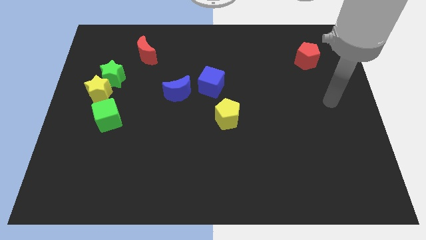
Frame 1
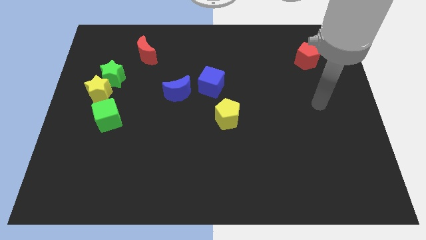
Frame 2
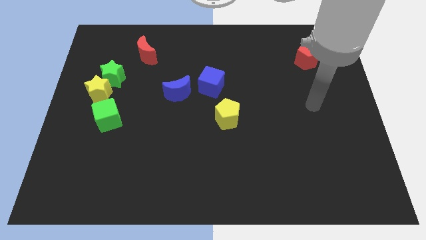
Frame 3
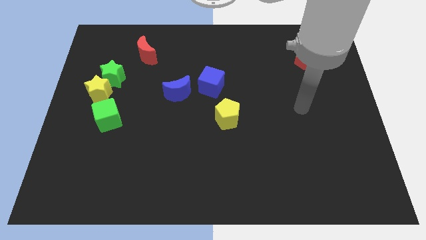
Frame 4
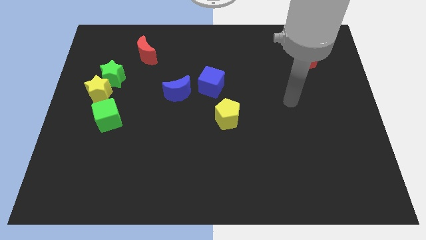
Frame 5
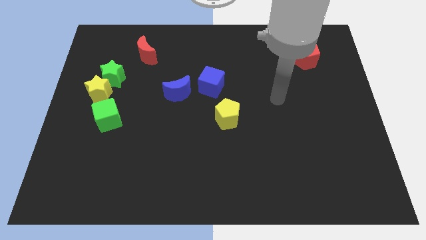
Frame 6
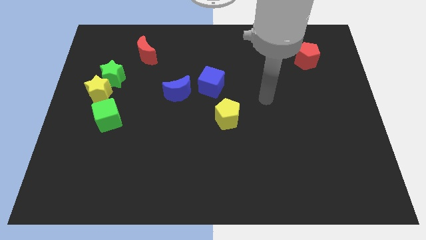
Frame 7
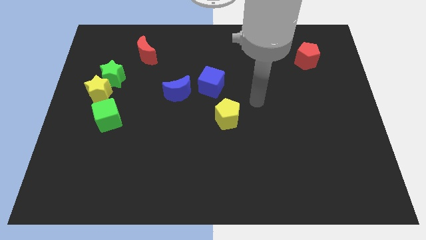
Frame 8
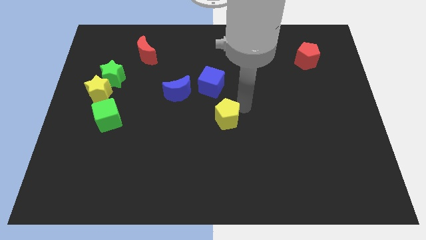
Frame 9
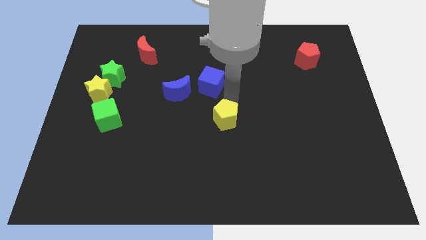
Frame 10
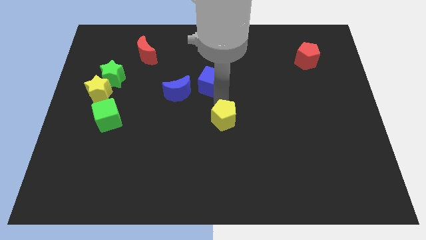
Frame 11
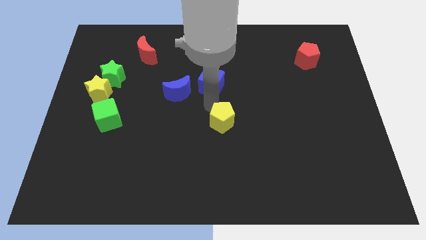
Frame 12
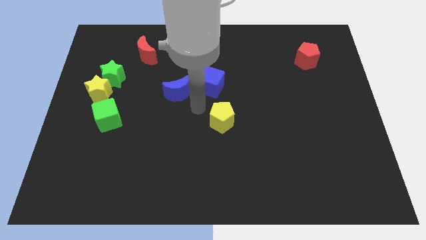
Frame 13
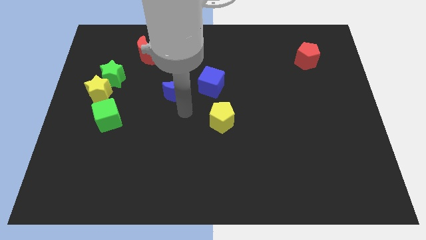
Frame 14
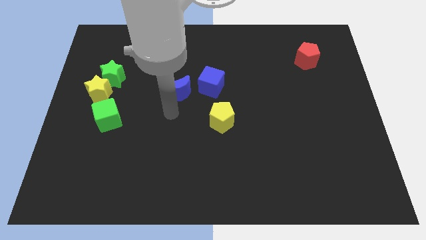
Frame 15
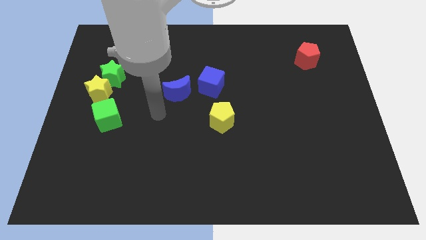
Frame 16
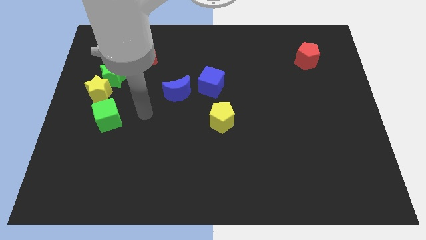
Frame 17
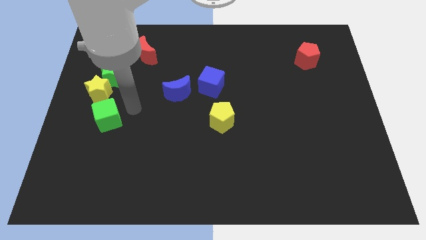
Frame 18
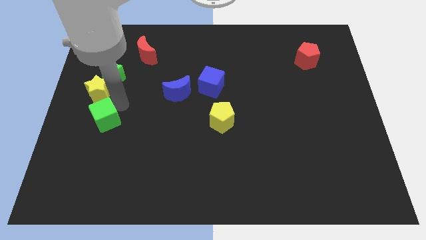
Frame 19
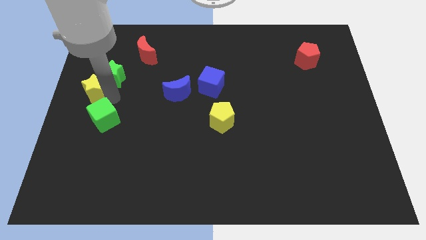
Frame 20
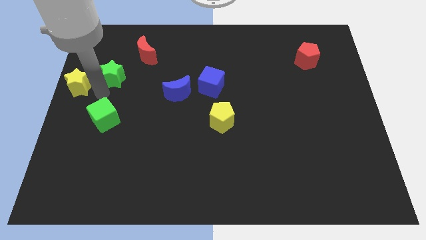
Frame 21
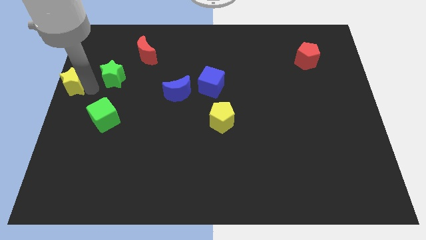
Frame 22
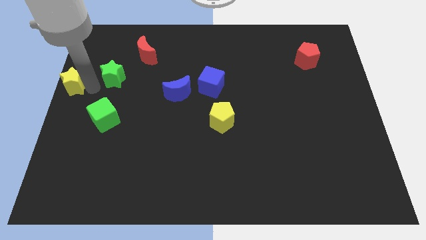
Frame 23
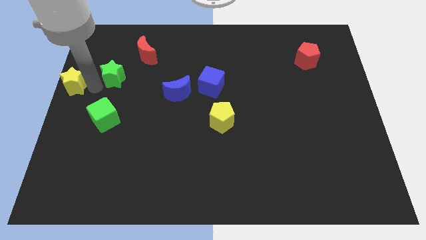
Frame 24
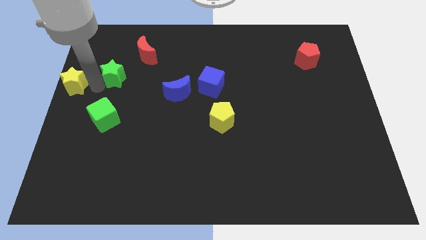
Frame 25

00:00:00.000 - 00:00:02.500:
pull the green star apart from the yellow star

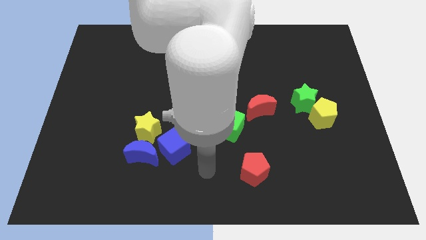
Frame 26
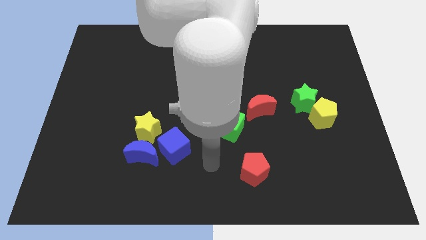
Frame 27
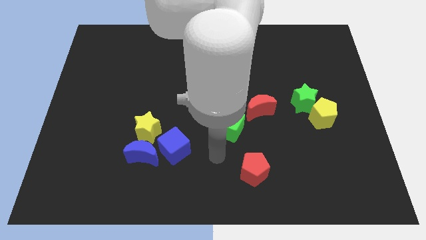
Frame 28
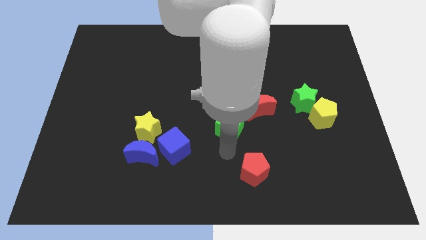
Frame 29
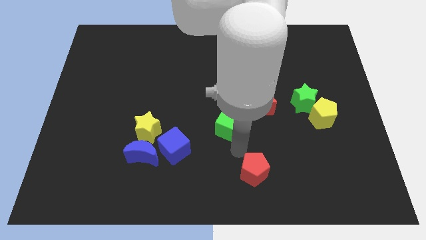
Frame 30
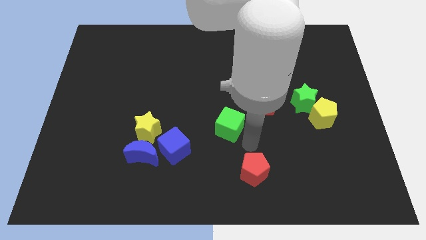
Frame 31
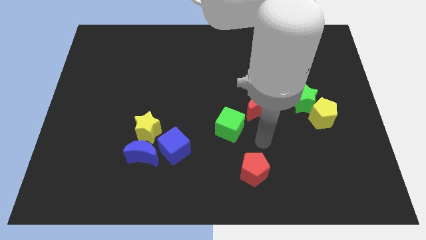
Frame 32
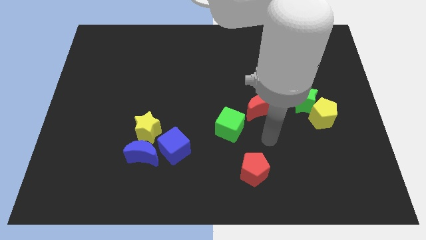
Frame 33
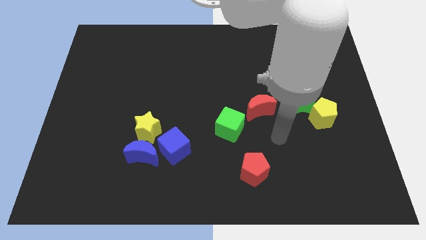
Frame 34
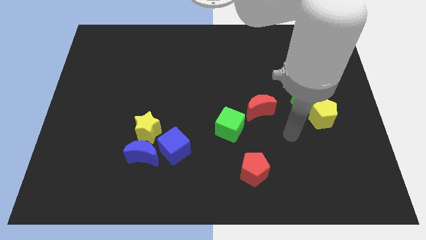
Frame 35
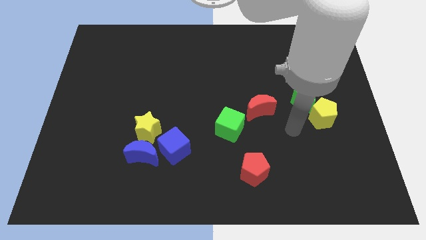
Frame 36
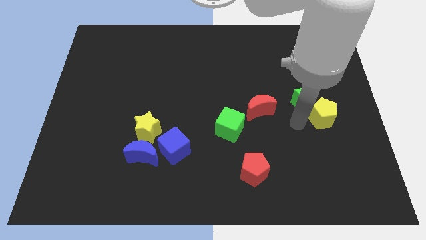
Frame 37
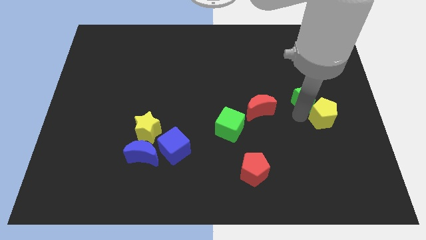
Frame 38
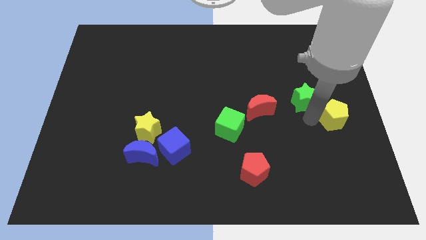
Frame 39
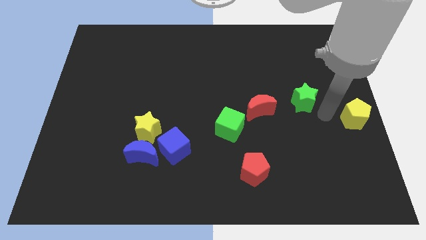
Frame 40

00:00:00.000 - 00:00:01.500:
move the green star away from the yellow pentagon

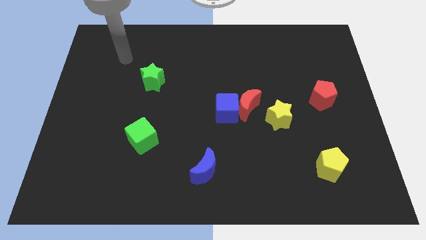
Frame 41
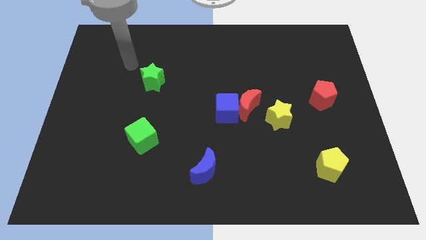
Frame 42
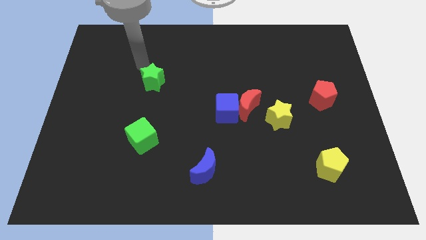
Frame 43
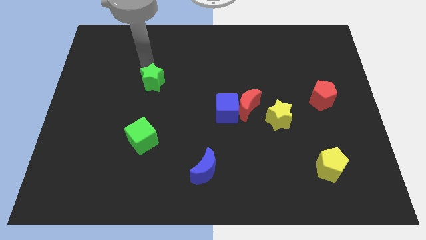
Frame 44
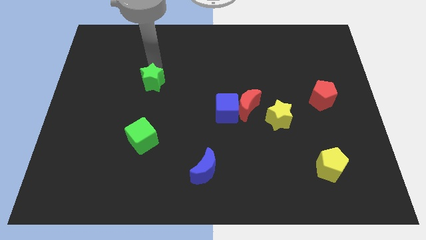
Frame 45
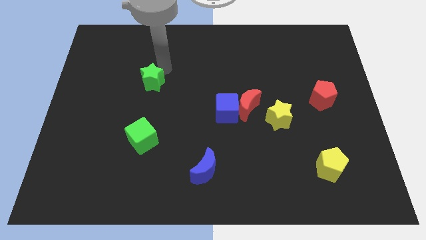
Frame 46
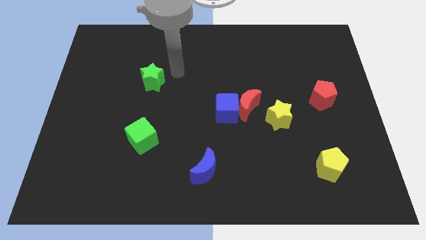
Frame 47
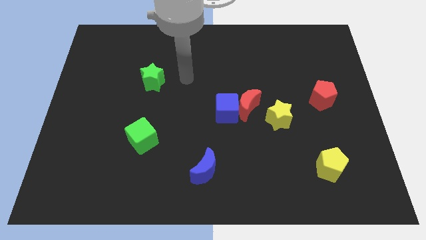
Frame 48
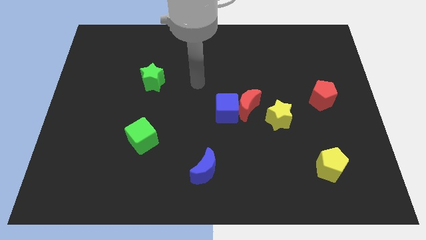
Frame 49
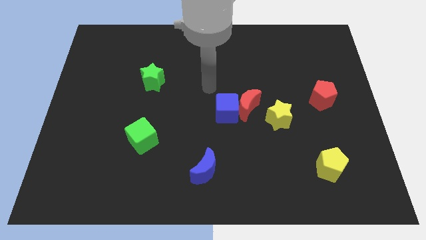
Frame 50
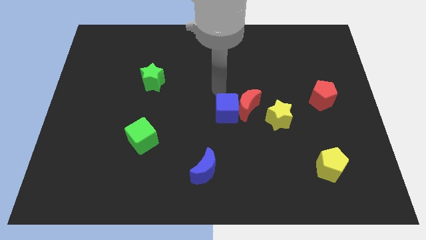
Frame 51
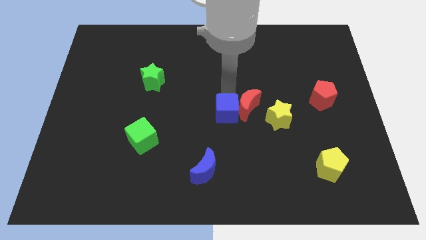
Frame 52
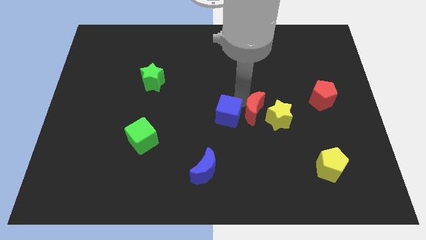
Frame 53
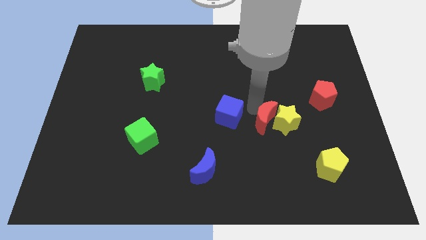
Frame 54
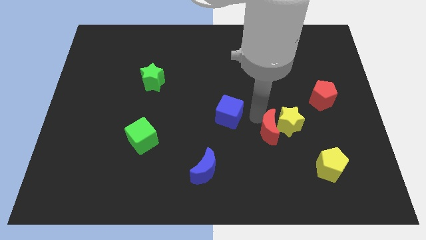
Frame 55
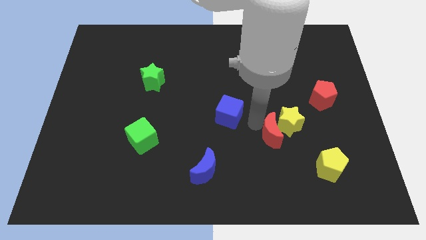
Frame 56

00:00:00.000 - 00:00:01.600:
move the blue cube away from the red moon

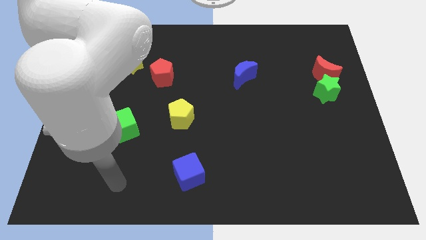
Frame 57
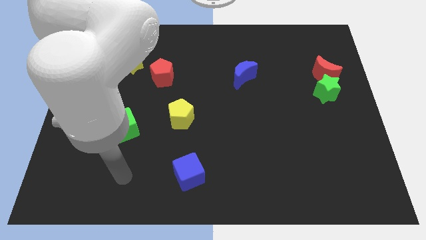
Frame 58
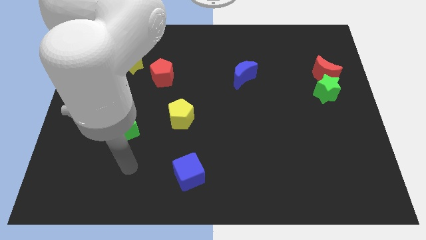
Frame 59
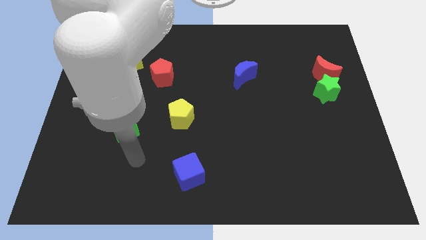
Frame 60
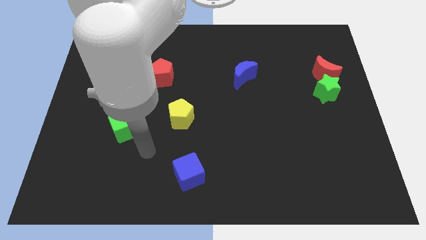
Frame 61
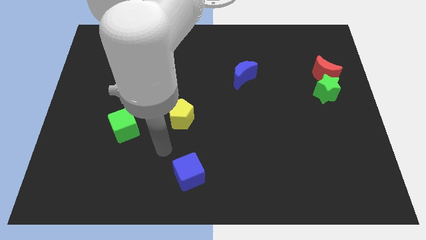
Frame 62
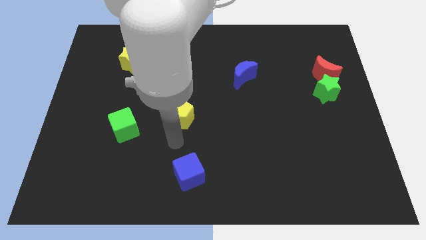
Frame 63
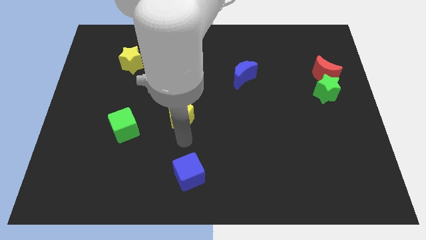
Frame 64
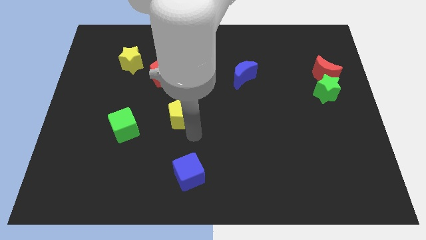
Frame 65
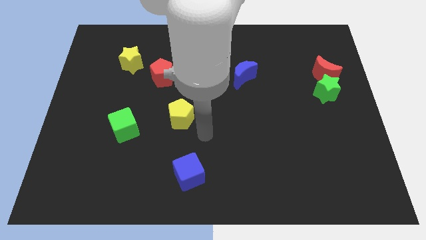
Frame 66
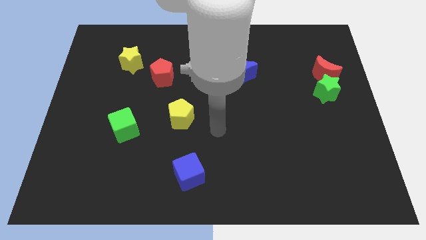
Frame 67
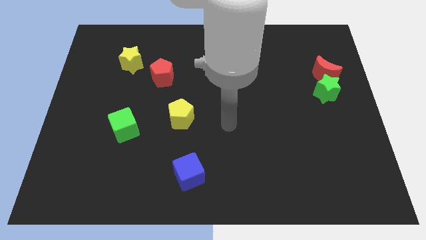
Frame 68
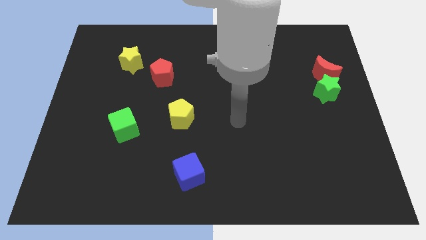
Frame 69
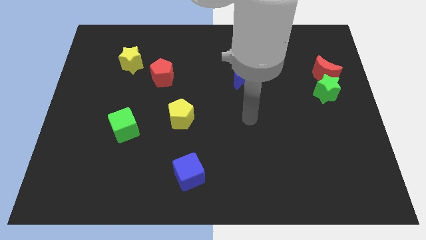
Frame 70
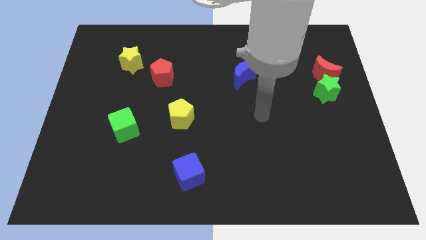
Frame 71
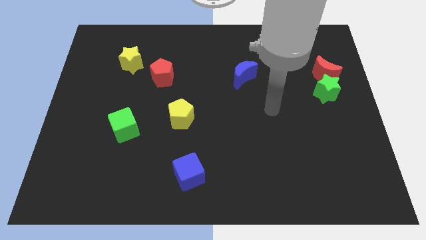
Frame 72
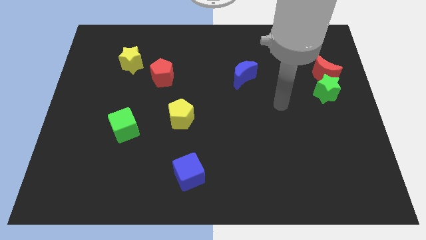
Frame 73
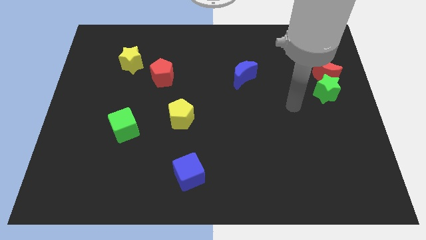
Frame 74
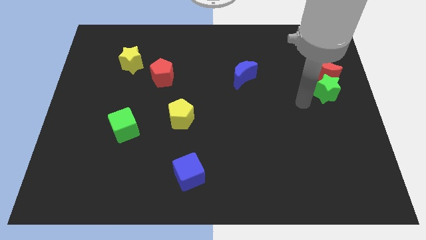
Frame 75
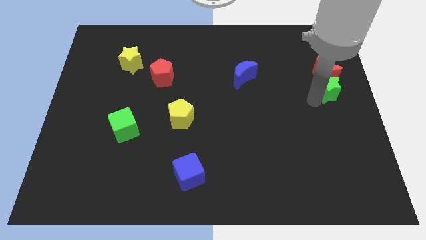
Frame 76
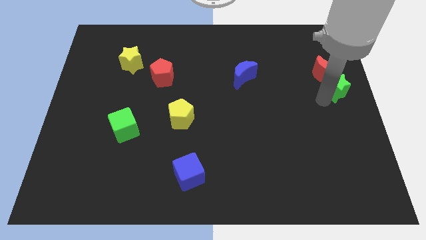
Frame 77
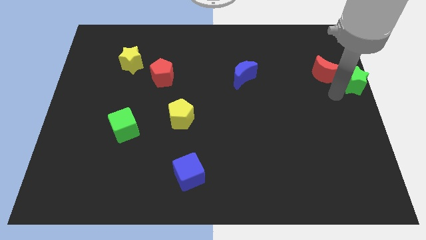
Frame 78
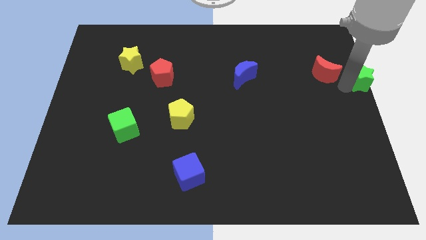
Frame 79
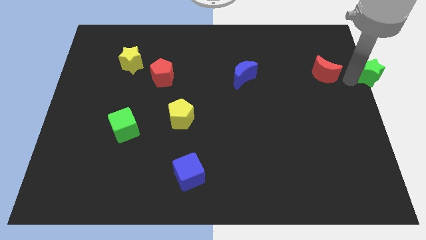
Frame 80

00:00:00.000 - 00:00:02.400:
separate the red moon from the green star

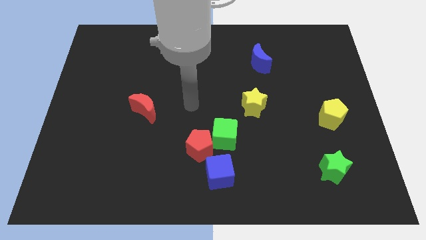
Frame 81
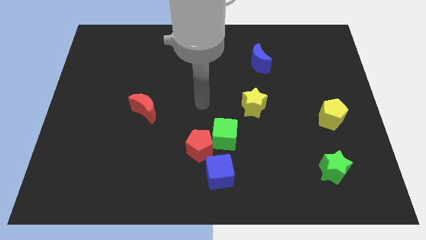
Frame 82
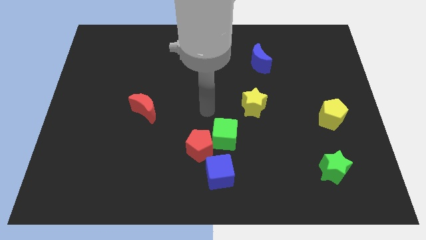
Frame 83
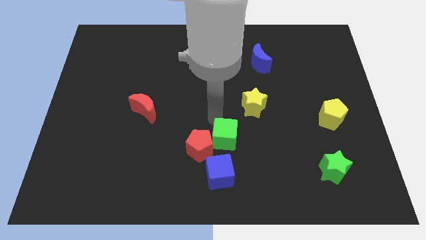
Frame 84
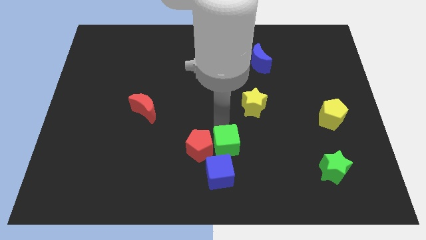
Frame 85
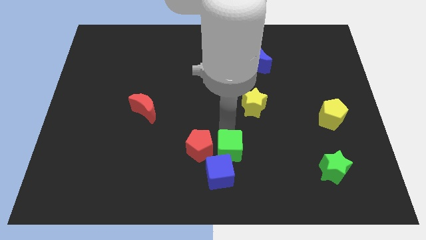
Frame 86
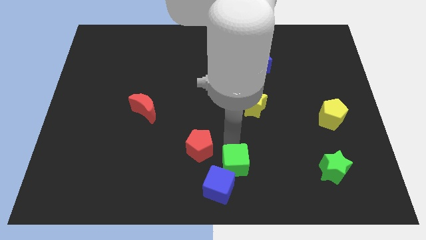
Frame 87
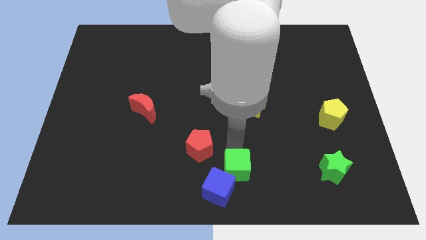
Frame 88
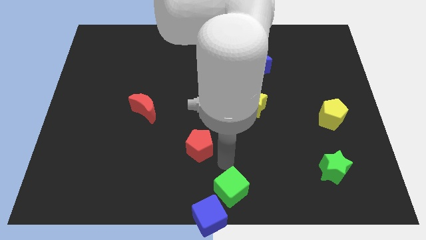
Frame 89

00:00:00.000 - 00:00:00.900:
pull the red pentagon apart from the green cube and blue cube

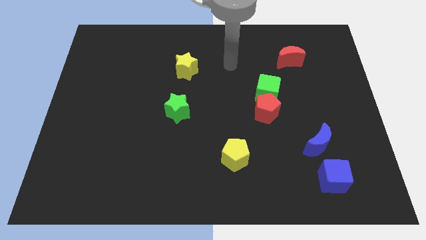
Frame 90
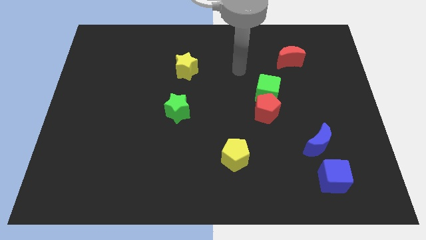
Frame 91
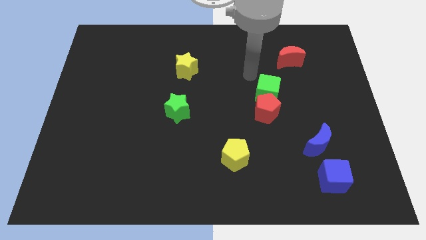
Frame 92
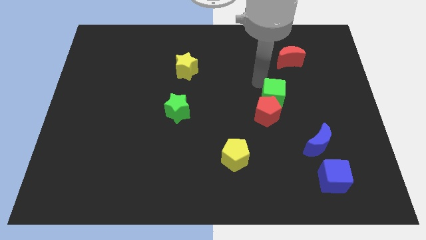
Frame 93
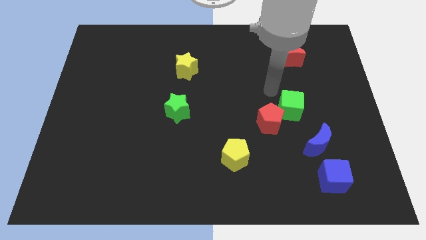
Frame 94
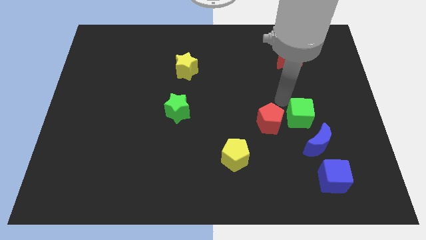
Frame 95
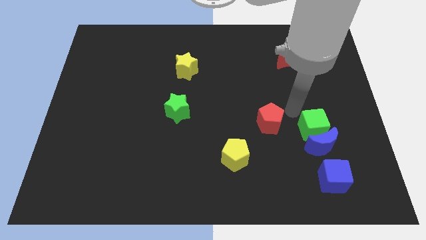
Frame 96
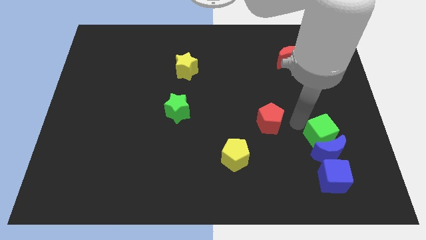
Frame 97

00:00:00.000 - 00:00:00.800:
pull the red pentagon apart from the green cube
